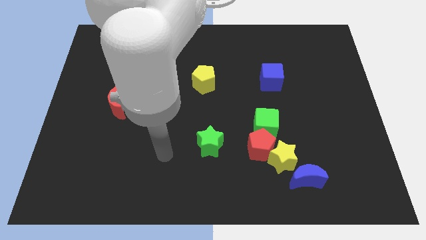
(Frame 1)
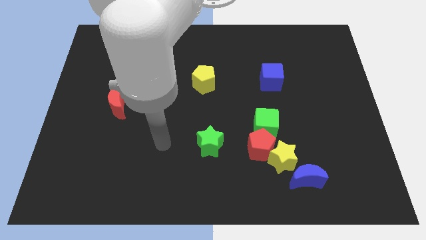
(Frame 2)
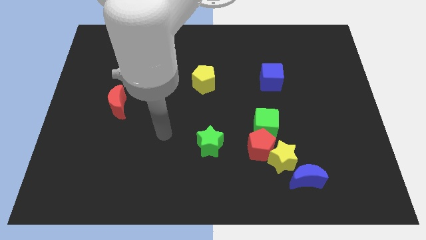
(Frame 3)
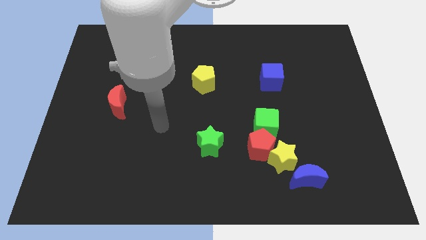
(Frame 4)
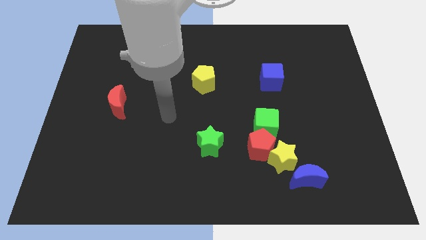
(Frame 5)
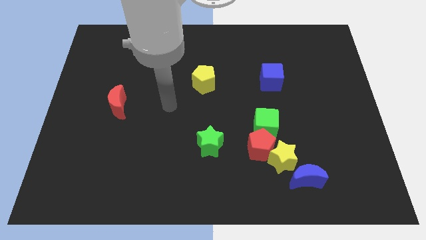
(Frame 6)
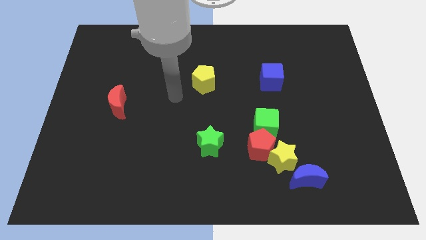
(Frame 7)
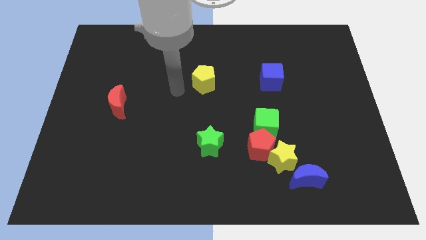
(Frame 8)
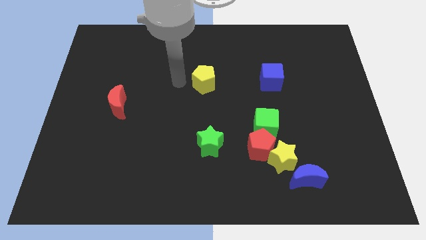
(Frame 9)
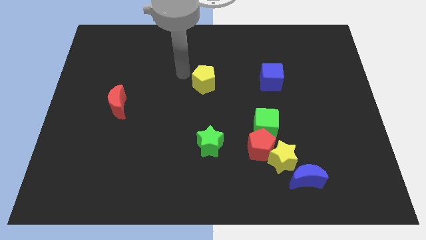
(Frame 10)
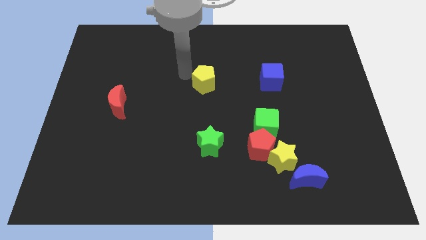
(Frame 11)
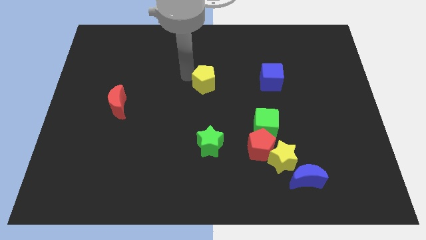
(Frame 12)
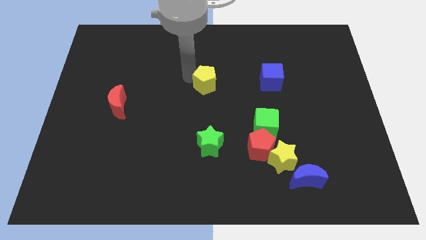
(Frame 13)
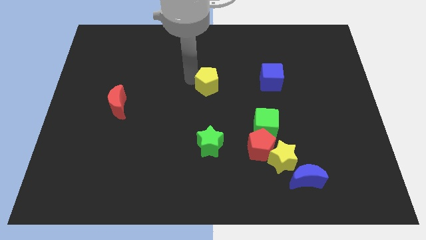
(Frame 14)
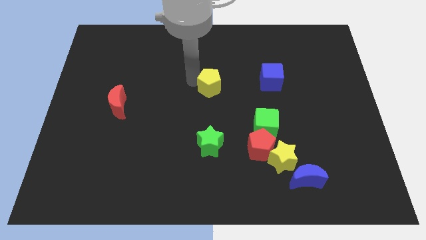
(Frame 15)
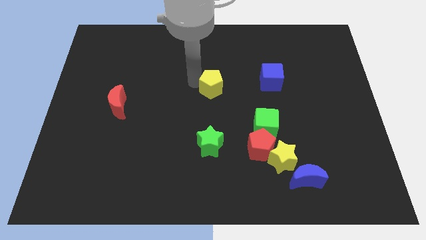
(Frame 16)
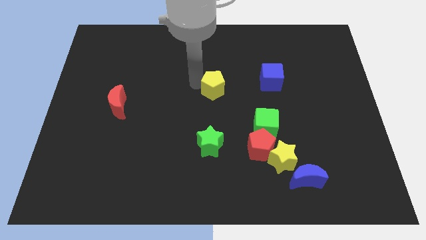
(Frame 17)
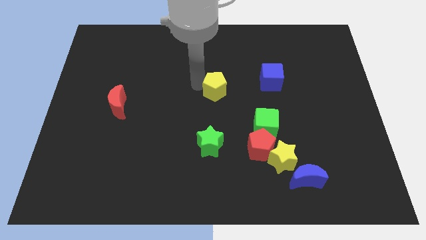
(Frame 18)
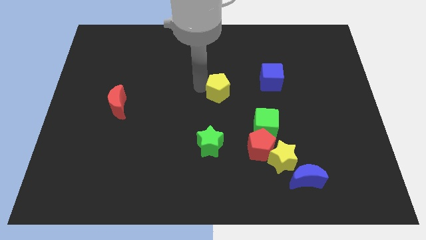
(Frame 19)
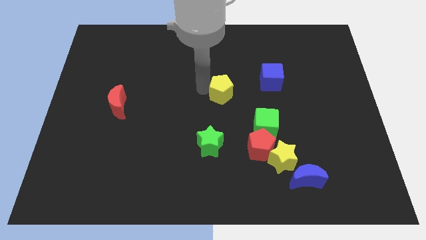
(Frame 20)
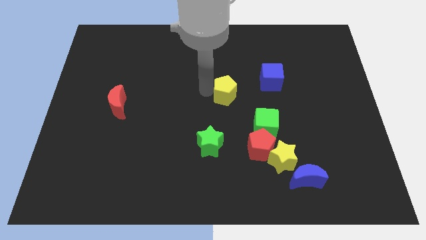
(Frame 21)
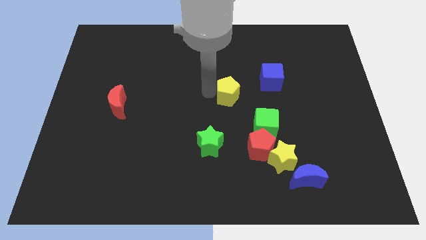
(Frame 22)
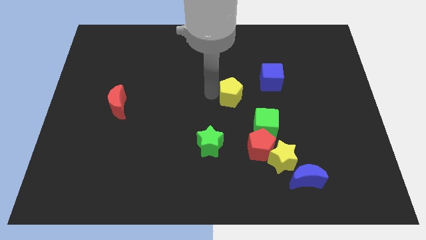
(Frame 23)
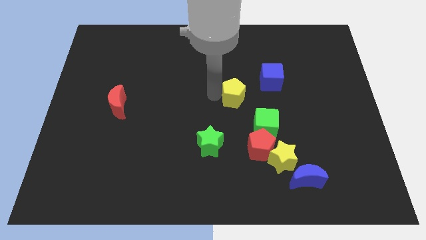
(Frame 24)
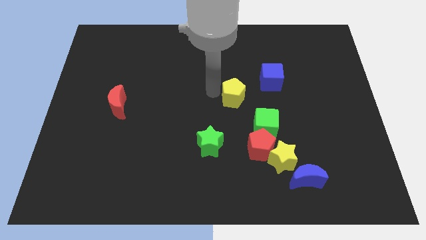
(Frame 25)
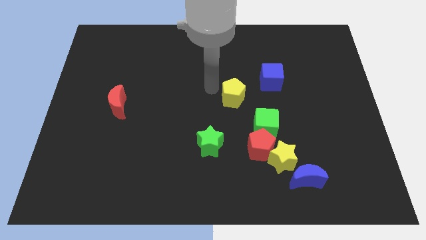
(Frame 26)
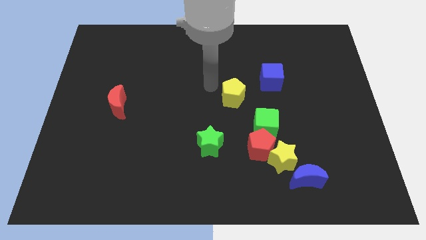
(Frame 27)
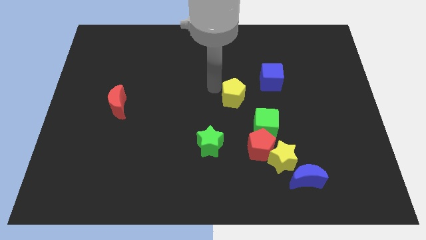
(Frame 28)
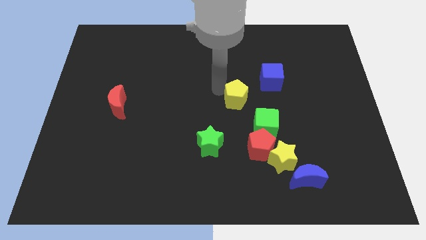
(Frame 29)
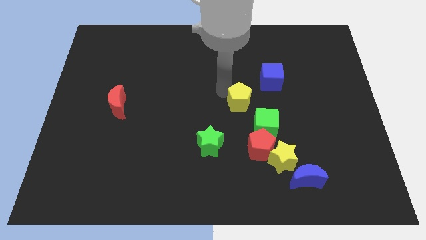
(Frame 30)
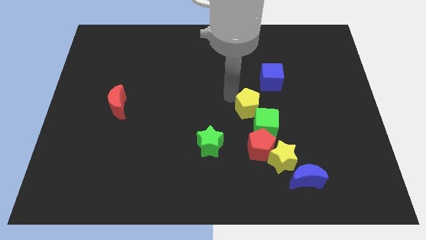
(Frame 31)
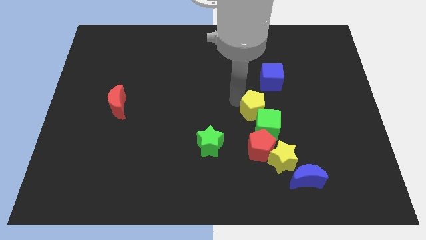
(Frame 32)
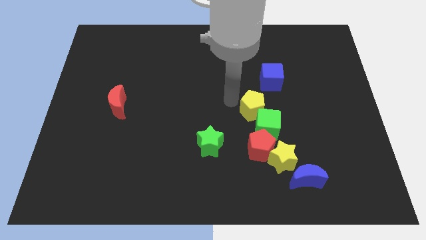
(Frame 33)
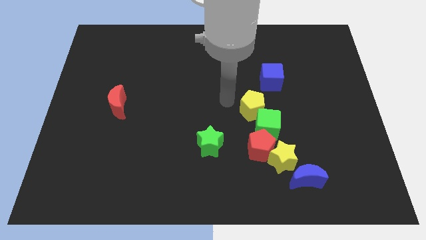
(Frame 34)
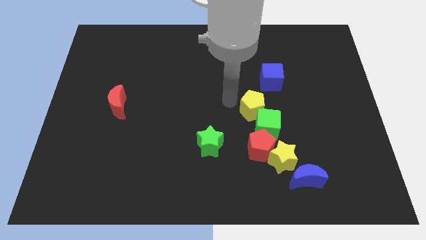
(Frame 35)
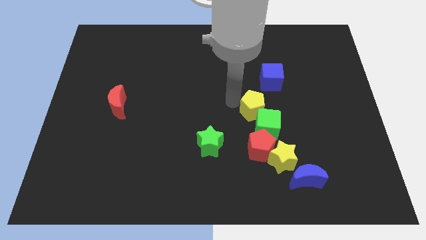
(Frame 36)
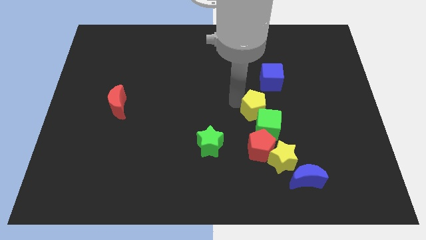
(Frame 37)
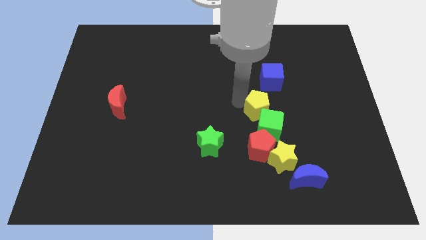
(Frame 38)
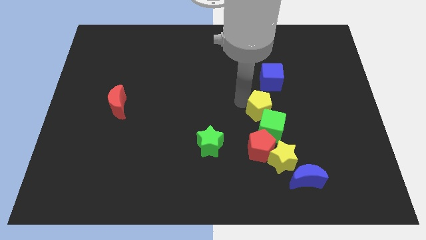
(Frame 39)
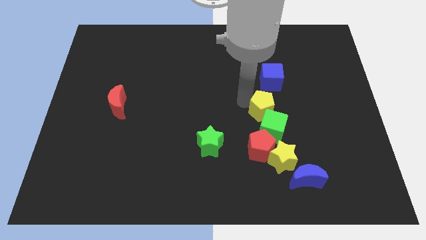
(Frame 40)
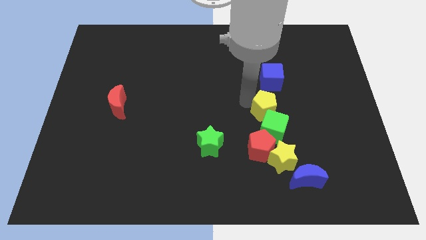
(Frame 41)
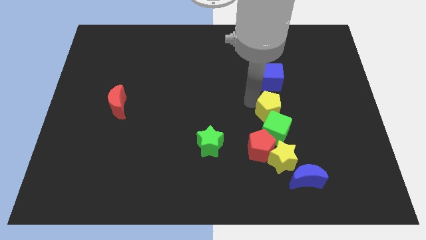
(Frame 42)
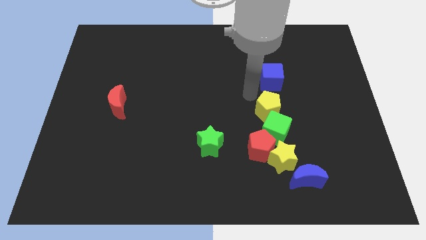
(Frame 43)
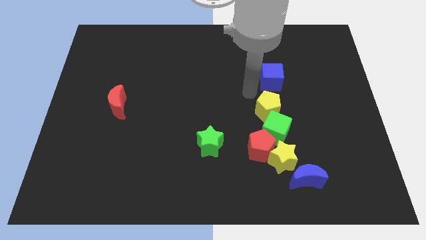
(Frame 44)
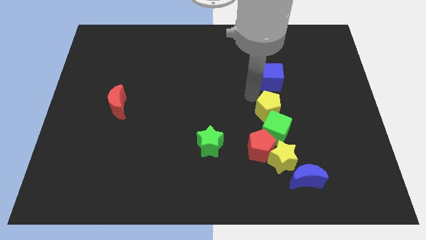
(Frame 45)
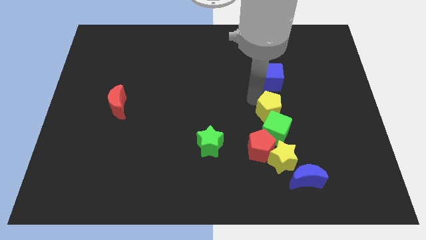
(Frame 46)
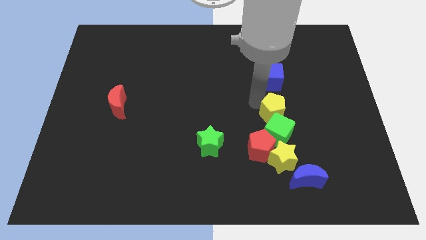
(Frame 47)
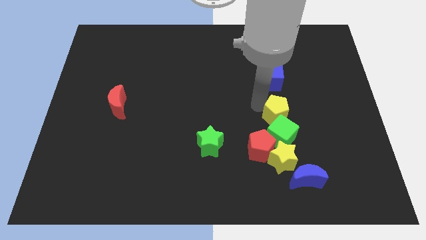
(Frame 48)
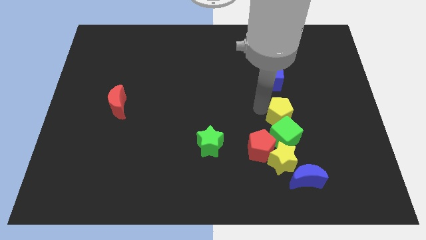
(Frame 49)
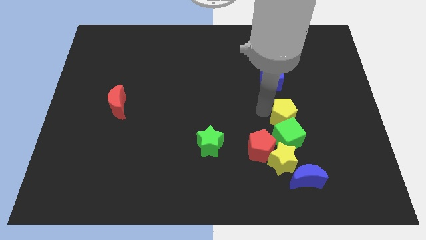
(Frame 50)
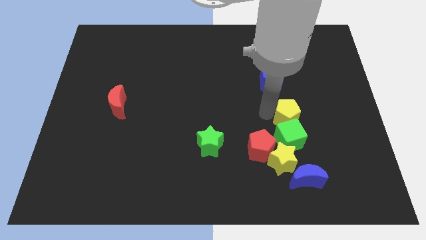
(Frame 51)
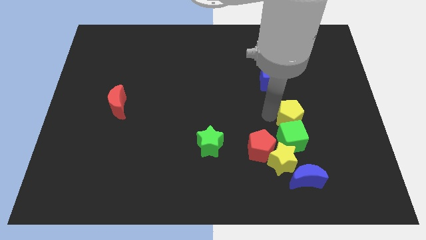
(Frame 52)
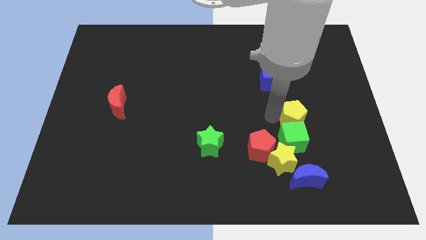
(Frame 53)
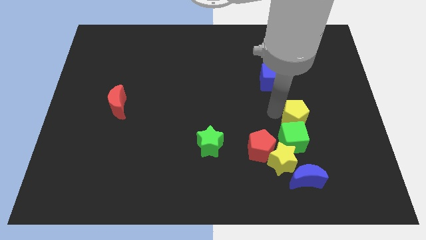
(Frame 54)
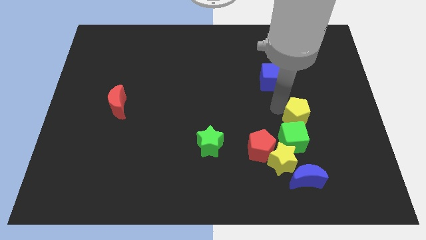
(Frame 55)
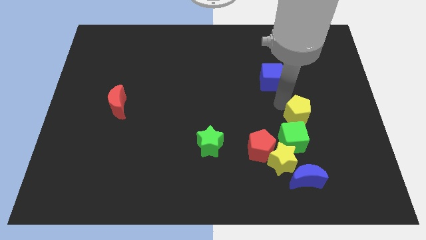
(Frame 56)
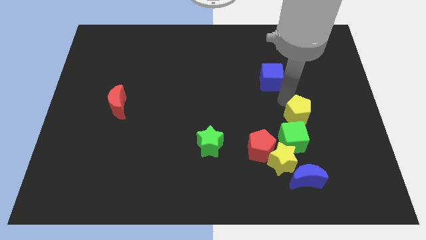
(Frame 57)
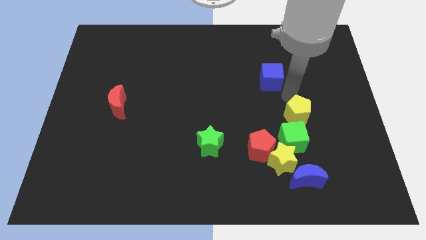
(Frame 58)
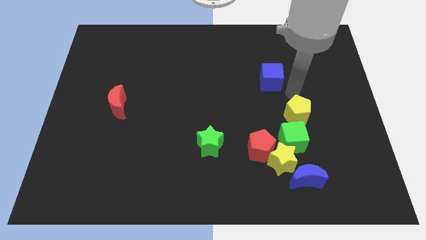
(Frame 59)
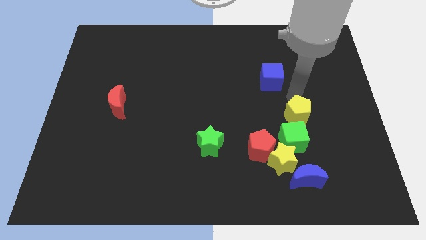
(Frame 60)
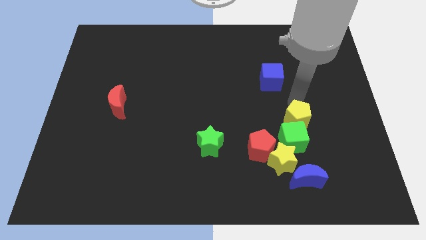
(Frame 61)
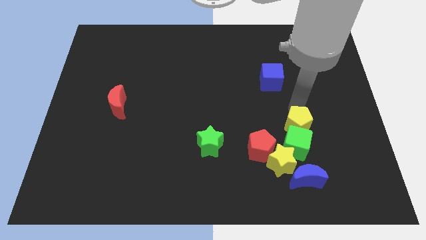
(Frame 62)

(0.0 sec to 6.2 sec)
put the yellow pentagon diagonally up and to the right of the yellow star

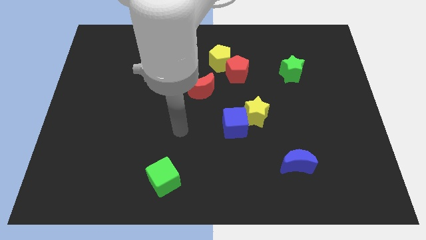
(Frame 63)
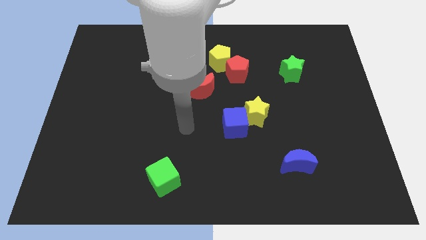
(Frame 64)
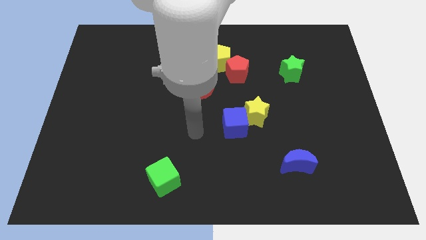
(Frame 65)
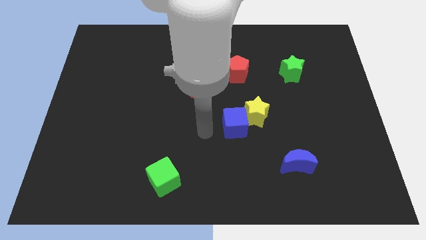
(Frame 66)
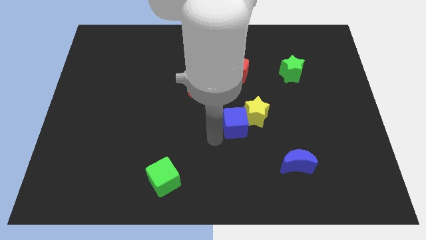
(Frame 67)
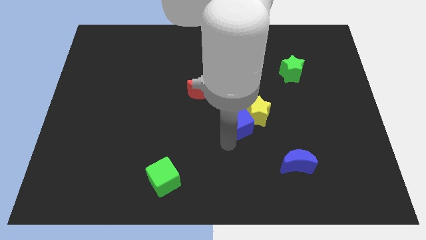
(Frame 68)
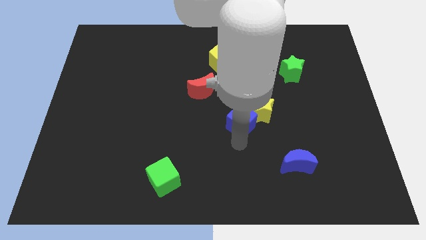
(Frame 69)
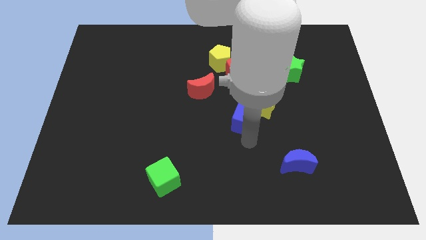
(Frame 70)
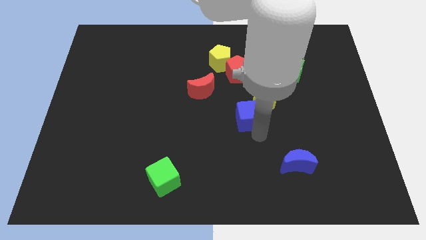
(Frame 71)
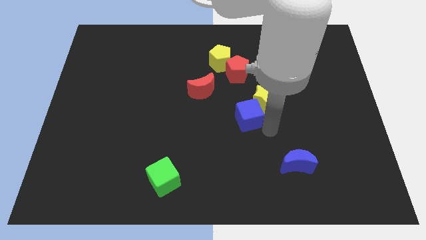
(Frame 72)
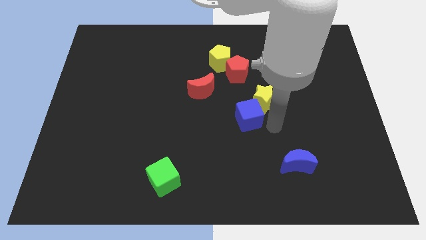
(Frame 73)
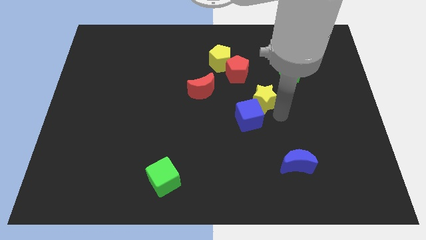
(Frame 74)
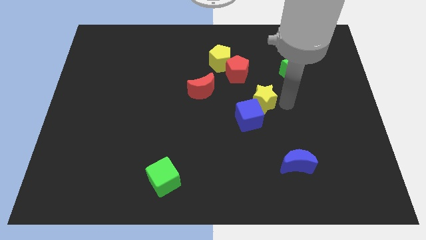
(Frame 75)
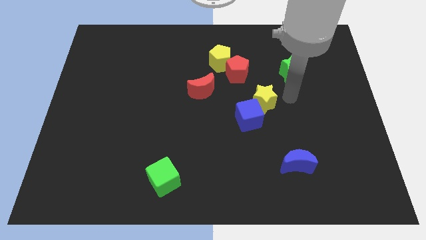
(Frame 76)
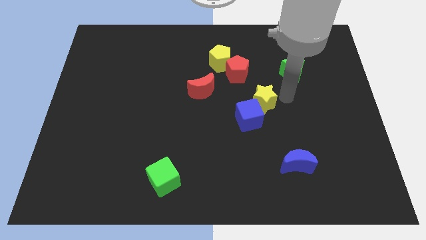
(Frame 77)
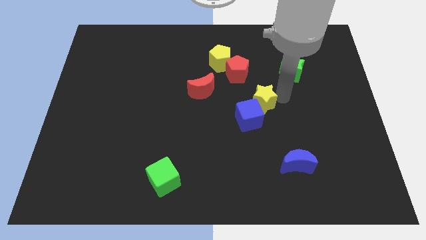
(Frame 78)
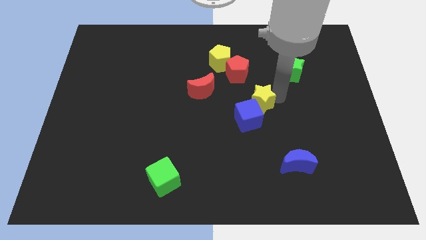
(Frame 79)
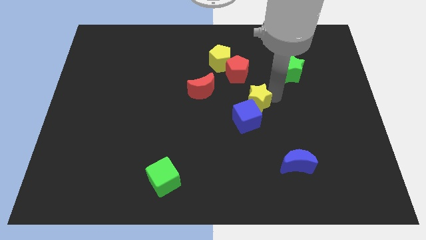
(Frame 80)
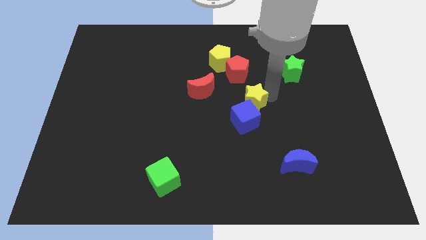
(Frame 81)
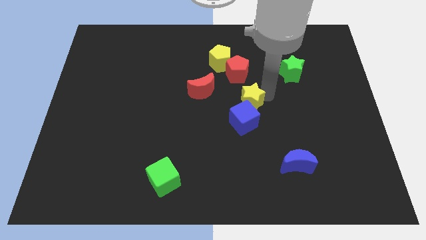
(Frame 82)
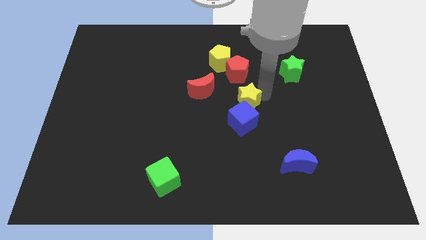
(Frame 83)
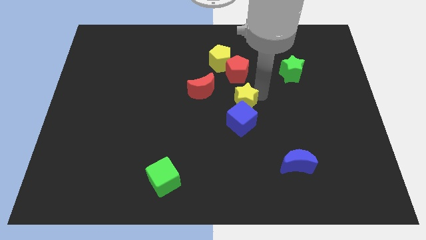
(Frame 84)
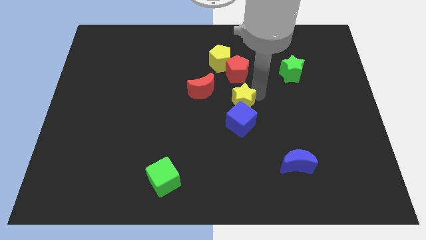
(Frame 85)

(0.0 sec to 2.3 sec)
put the yellow star to the top left of the blue cube
